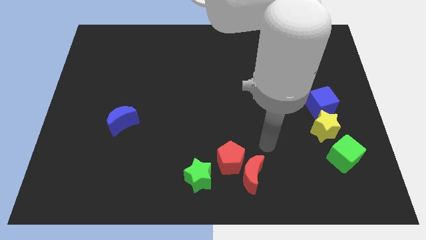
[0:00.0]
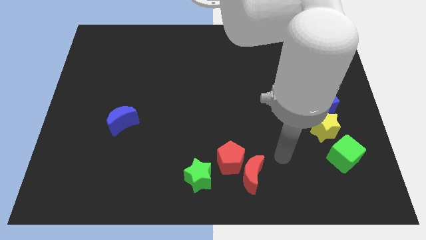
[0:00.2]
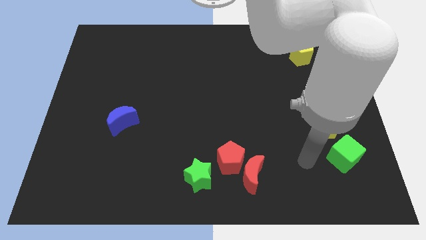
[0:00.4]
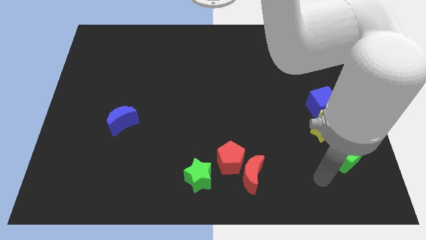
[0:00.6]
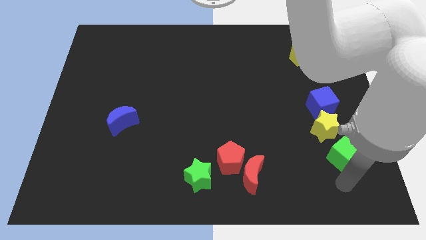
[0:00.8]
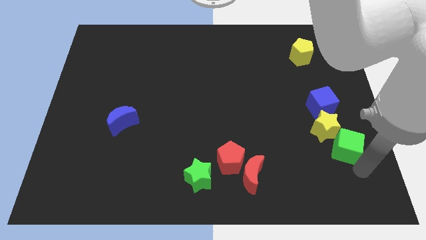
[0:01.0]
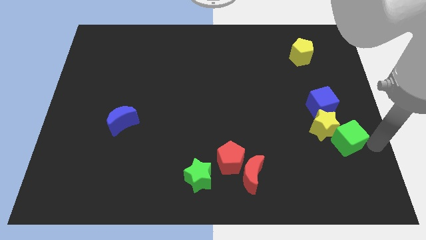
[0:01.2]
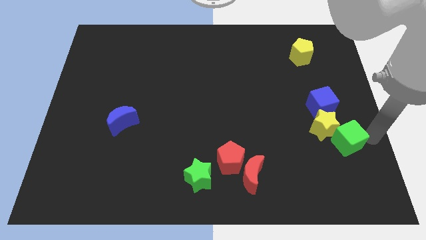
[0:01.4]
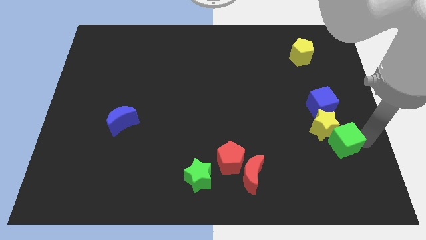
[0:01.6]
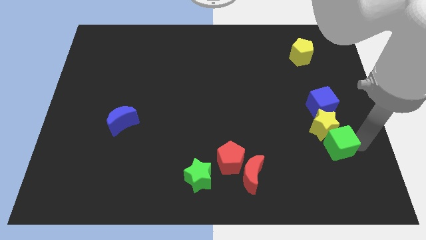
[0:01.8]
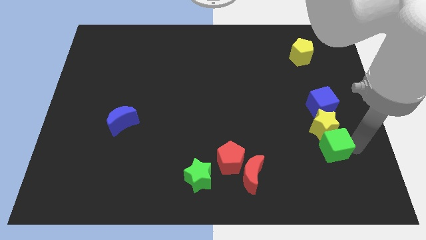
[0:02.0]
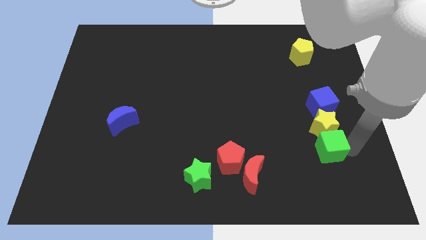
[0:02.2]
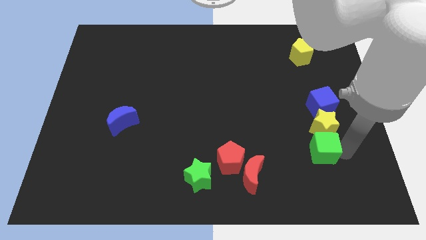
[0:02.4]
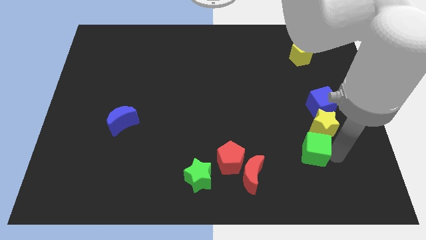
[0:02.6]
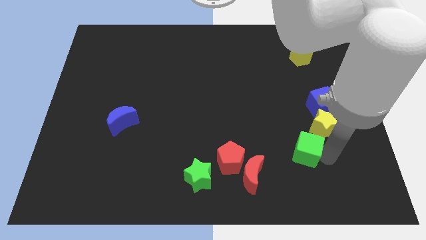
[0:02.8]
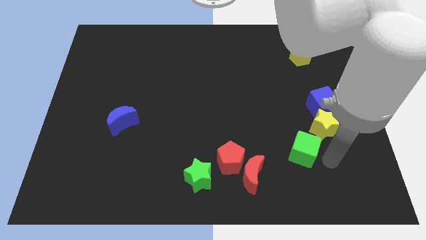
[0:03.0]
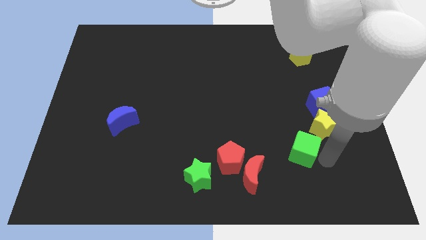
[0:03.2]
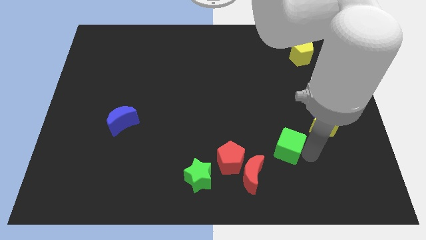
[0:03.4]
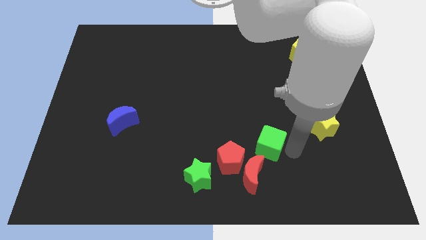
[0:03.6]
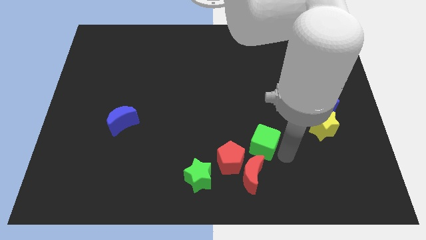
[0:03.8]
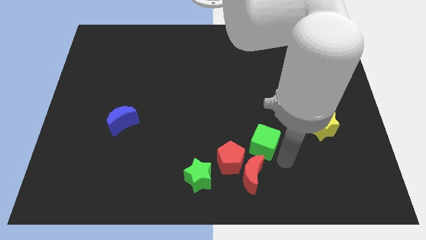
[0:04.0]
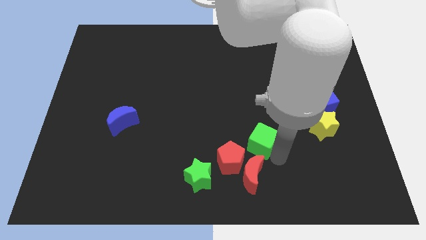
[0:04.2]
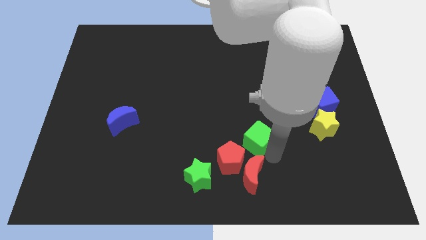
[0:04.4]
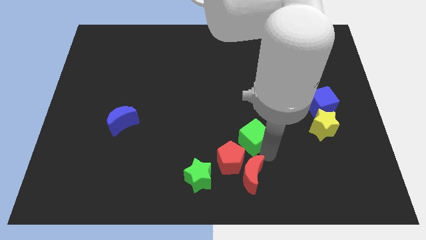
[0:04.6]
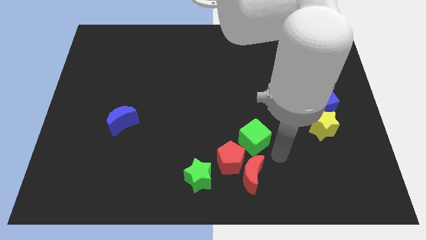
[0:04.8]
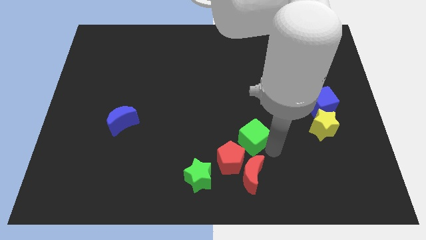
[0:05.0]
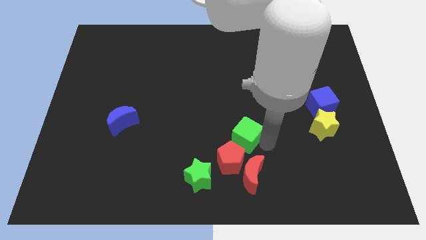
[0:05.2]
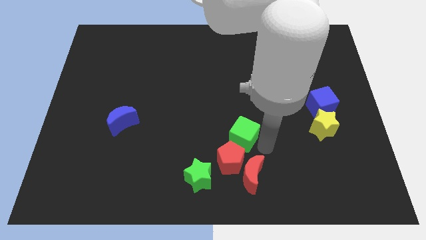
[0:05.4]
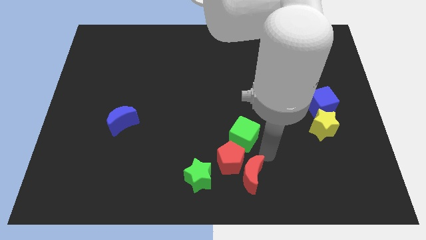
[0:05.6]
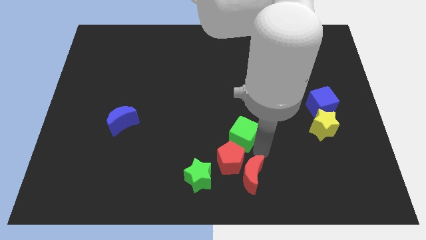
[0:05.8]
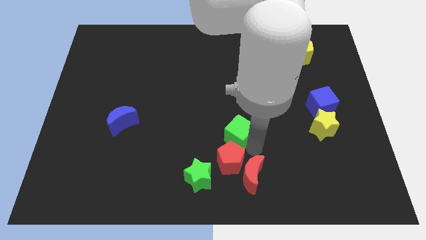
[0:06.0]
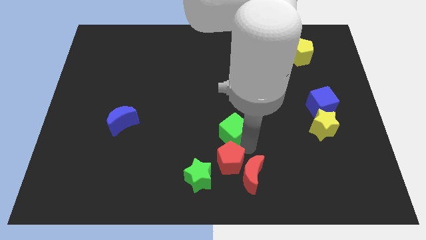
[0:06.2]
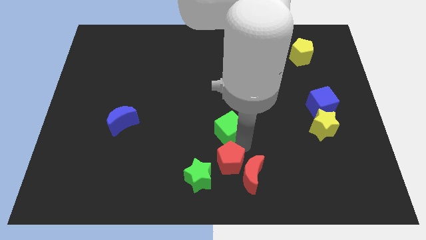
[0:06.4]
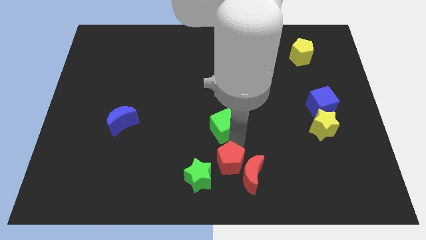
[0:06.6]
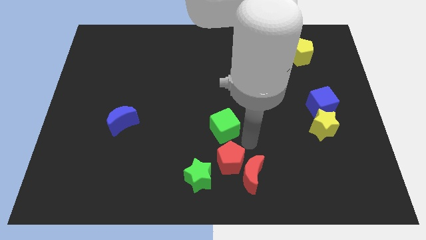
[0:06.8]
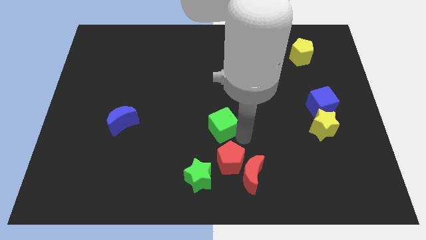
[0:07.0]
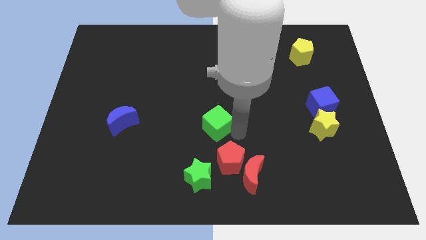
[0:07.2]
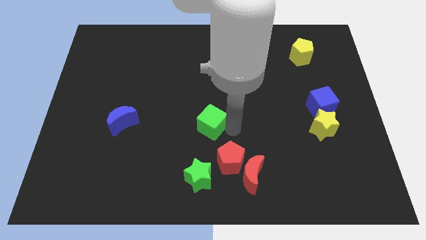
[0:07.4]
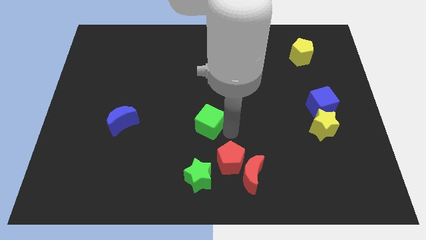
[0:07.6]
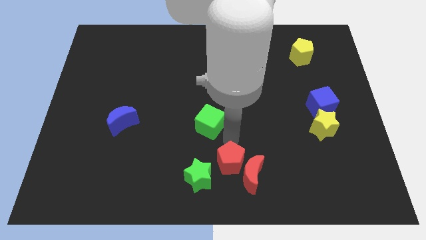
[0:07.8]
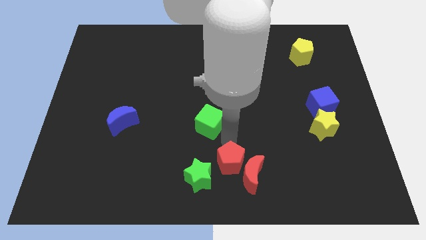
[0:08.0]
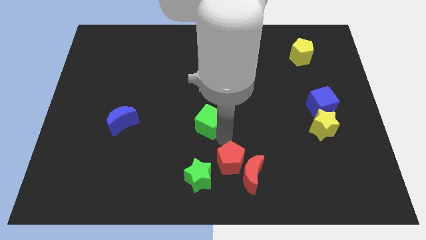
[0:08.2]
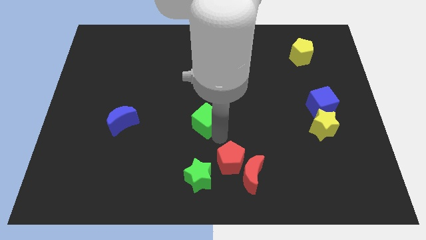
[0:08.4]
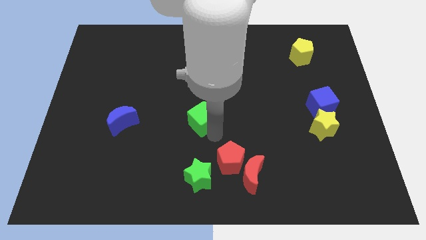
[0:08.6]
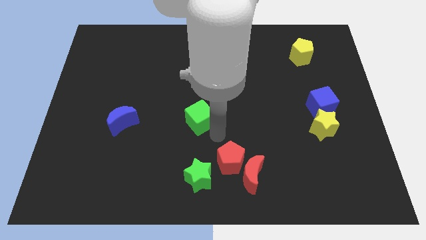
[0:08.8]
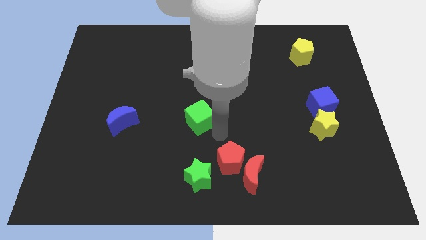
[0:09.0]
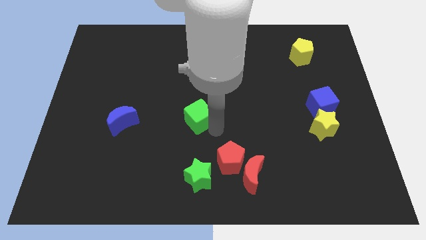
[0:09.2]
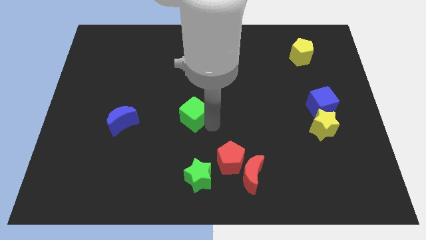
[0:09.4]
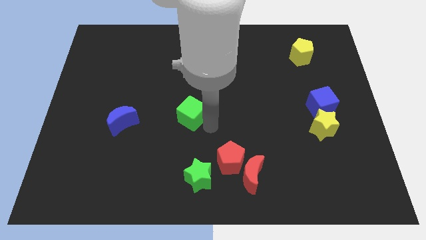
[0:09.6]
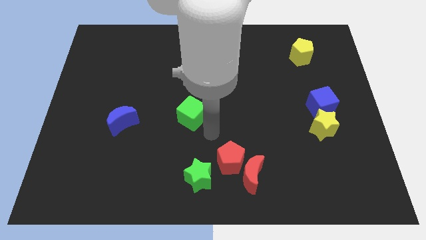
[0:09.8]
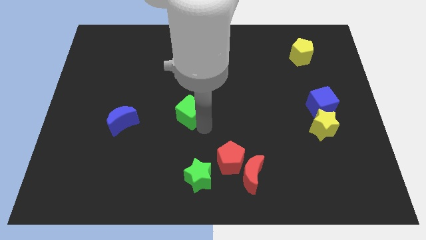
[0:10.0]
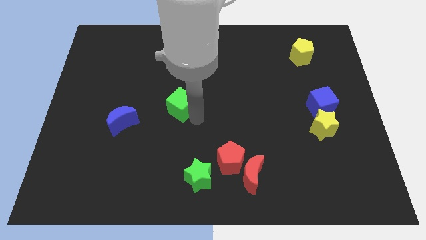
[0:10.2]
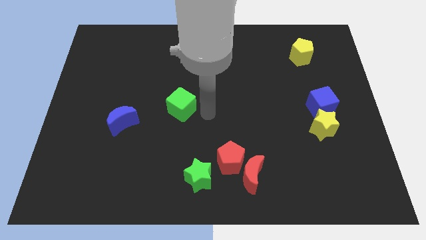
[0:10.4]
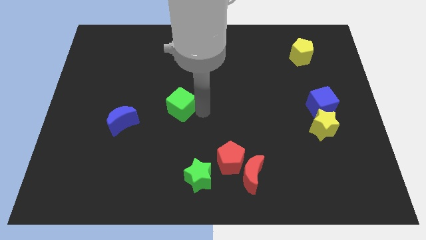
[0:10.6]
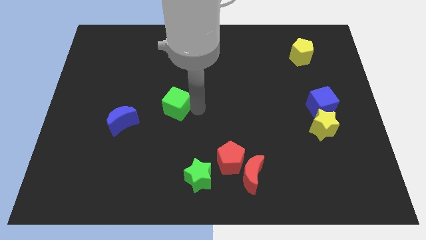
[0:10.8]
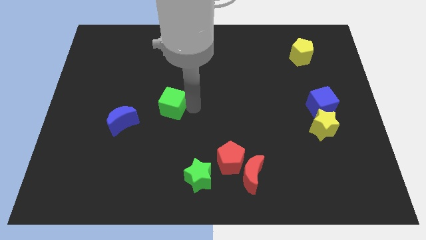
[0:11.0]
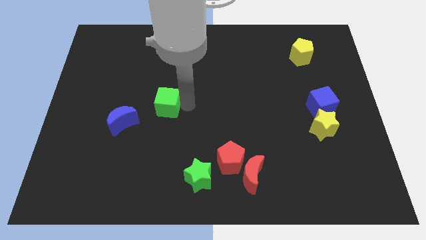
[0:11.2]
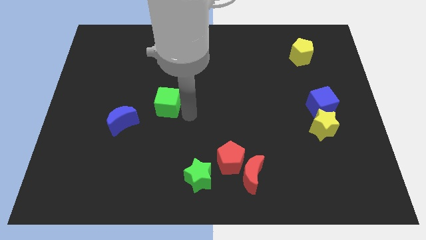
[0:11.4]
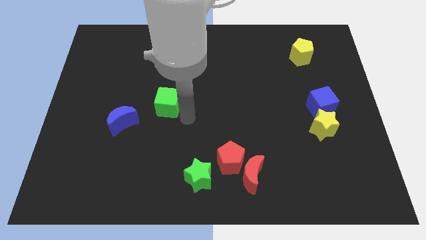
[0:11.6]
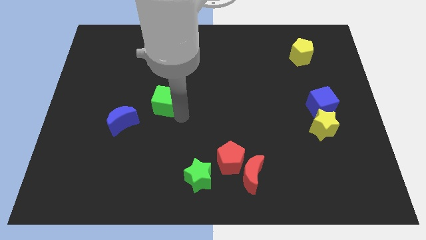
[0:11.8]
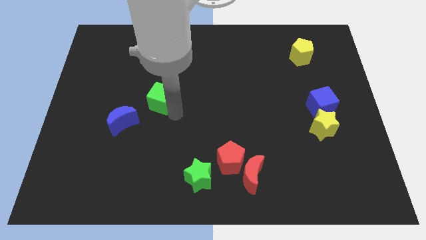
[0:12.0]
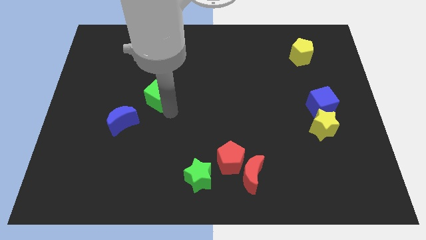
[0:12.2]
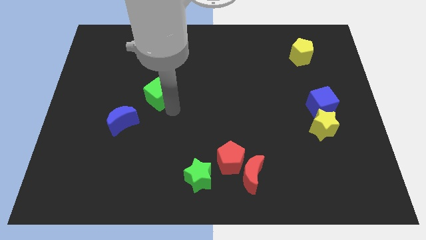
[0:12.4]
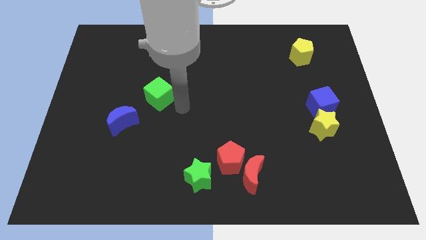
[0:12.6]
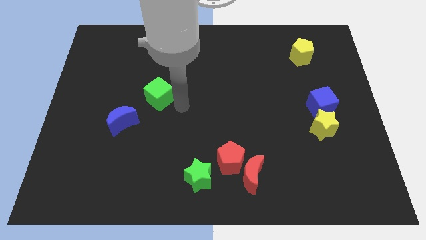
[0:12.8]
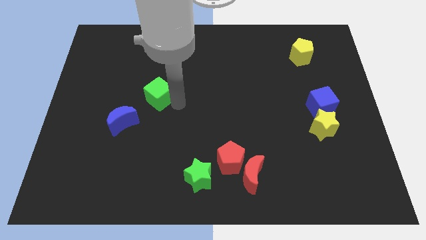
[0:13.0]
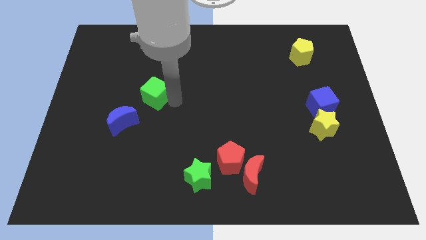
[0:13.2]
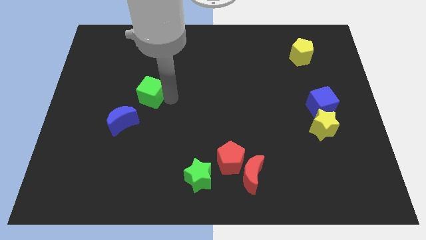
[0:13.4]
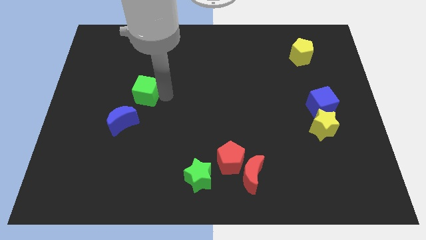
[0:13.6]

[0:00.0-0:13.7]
slide the green cube to the top side of the blue moon
